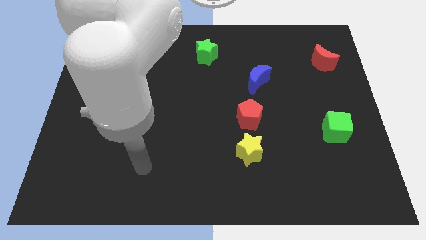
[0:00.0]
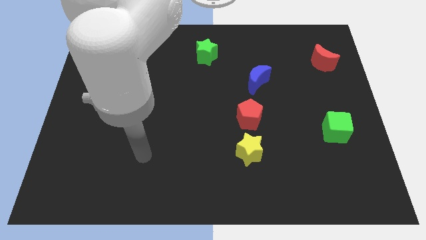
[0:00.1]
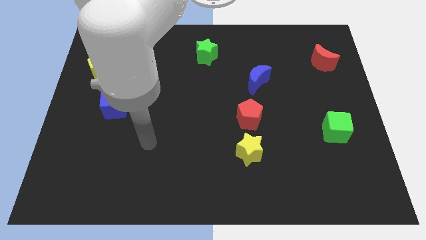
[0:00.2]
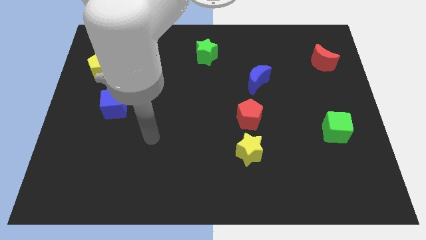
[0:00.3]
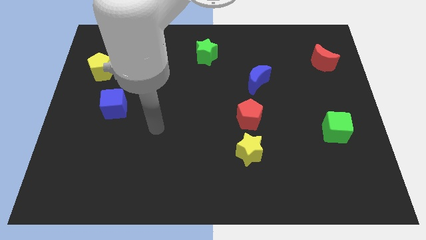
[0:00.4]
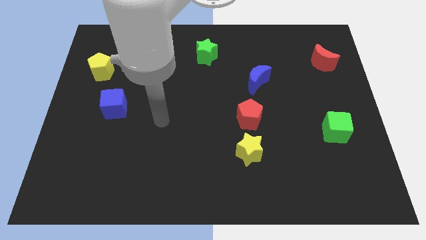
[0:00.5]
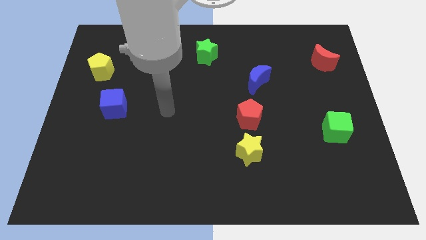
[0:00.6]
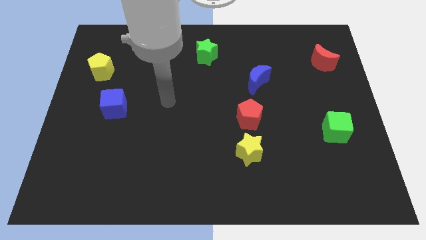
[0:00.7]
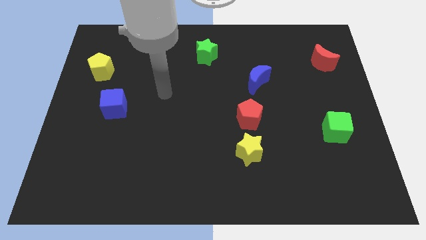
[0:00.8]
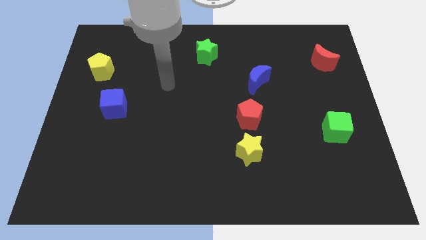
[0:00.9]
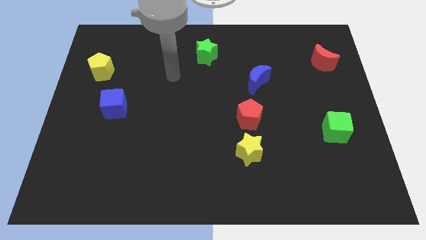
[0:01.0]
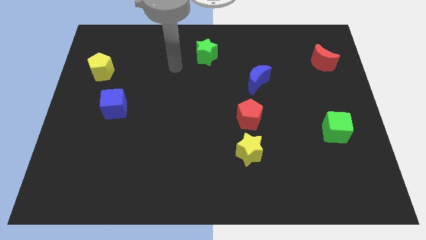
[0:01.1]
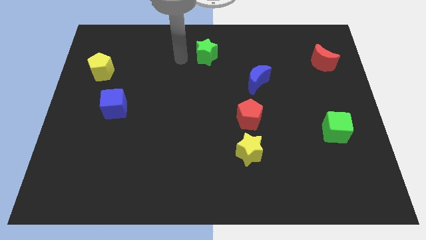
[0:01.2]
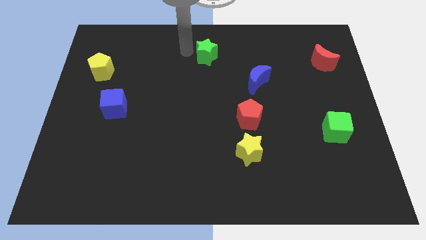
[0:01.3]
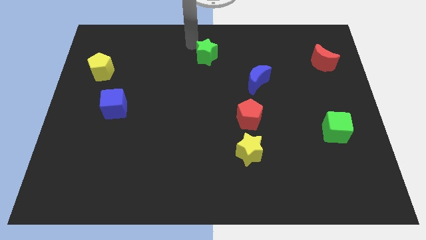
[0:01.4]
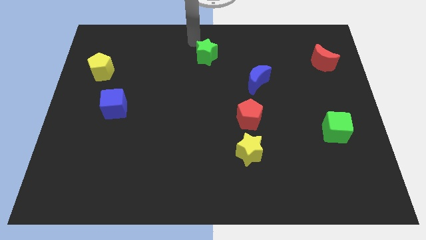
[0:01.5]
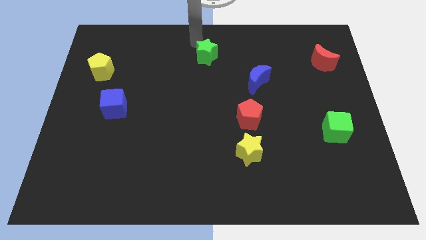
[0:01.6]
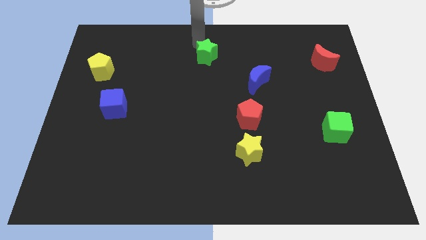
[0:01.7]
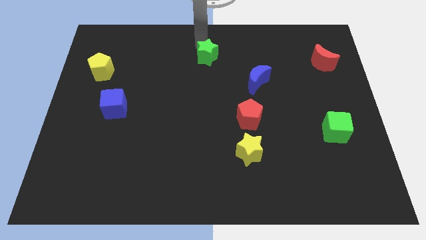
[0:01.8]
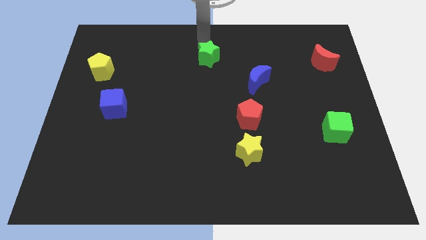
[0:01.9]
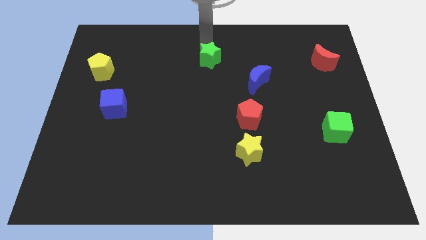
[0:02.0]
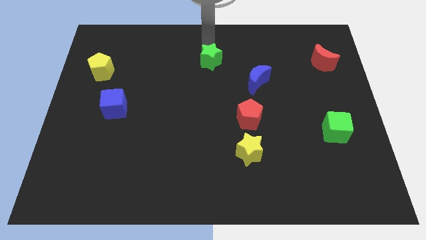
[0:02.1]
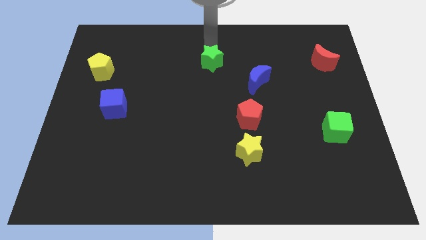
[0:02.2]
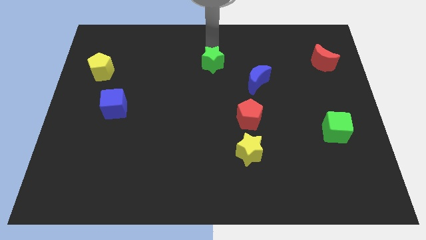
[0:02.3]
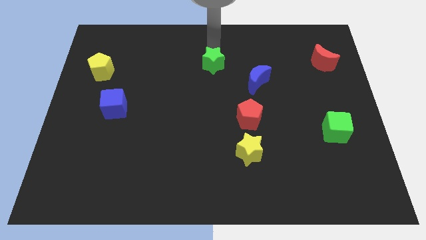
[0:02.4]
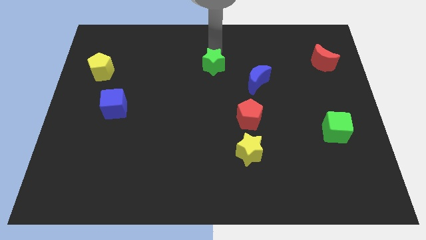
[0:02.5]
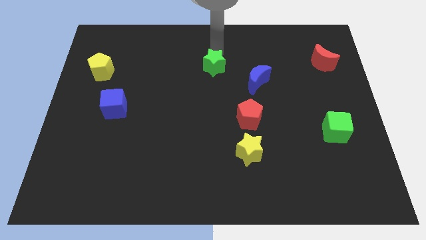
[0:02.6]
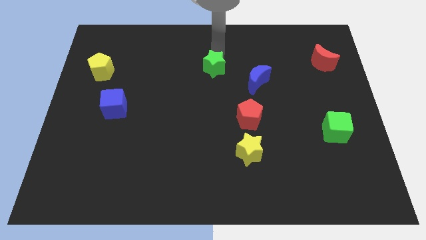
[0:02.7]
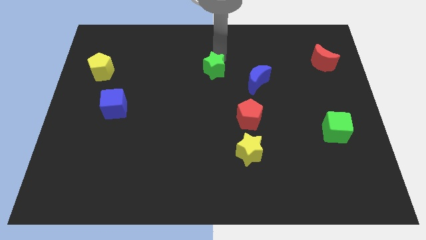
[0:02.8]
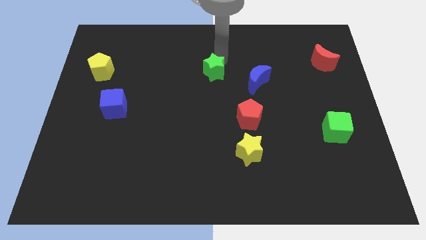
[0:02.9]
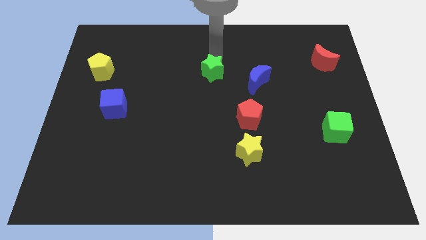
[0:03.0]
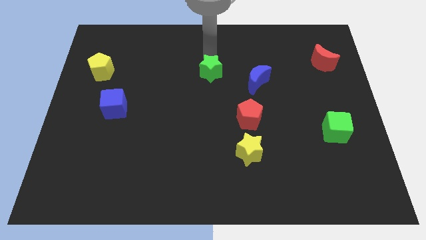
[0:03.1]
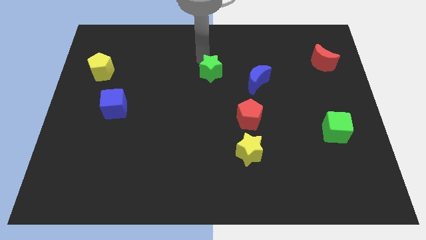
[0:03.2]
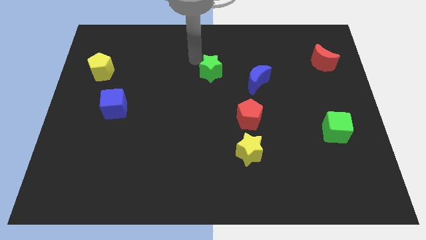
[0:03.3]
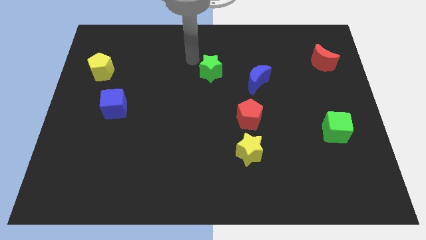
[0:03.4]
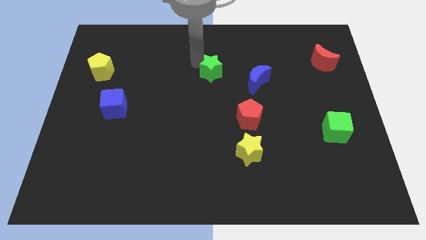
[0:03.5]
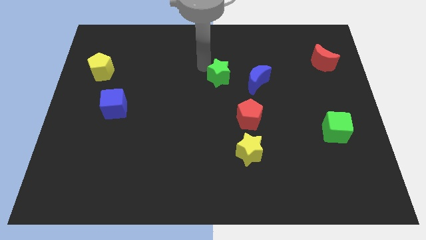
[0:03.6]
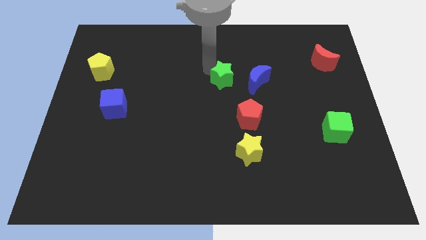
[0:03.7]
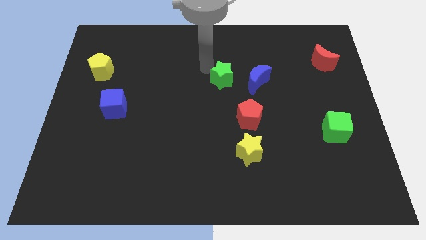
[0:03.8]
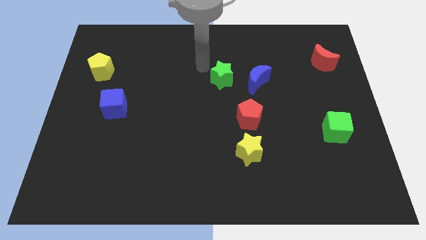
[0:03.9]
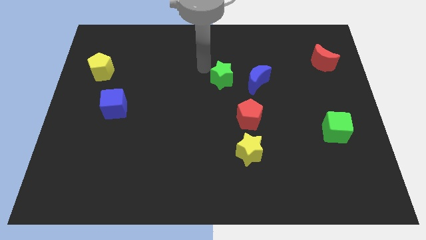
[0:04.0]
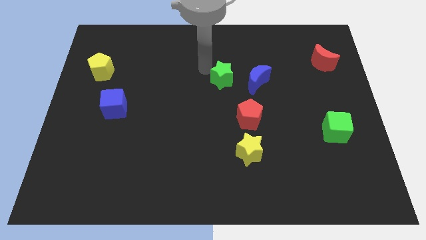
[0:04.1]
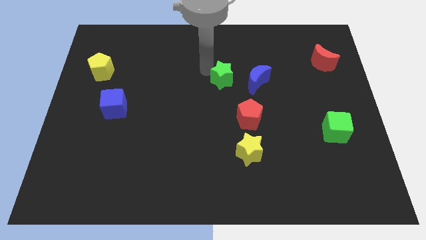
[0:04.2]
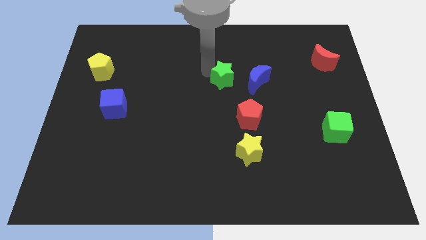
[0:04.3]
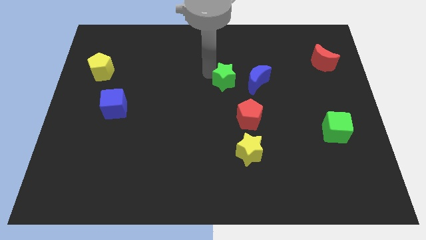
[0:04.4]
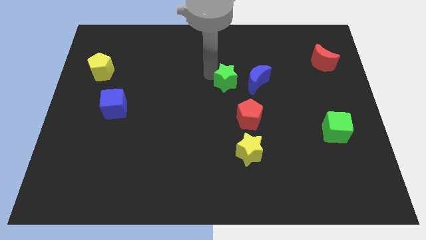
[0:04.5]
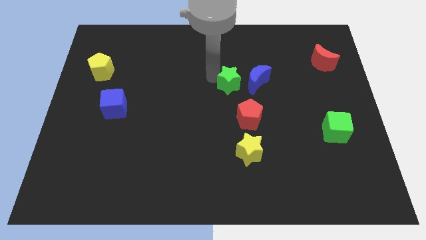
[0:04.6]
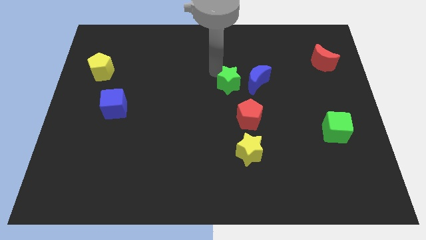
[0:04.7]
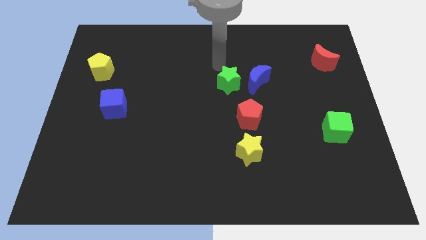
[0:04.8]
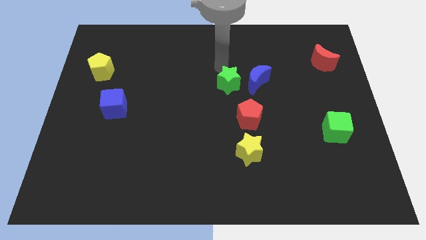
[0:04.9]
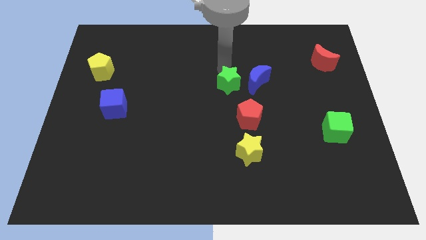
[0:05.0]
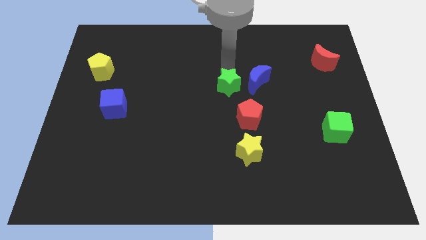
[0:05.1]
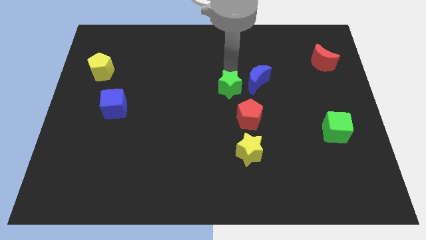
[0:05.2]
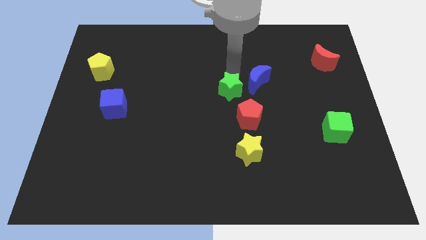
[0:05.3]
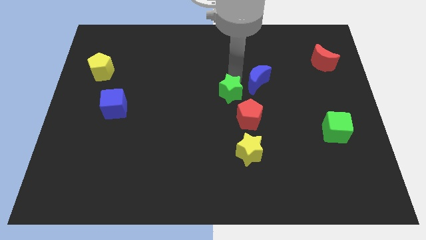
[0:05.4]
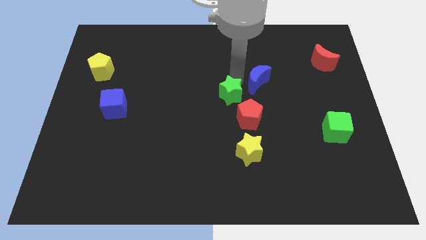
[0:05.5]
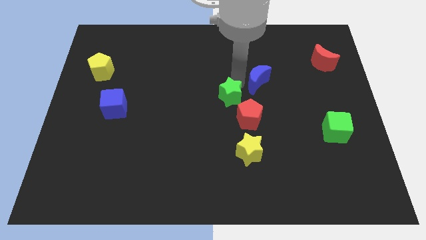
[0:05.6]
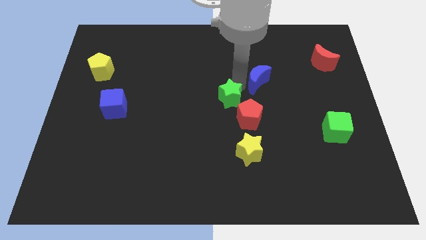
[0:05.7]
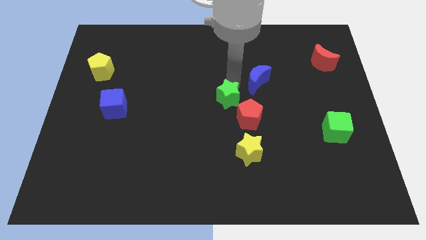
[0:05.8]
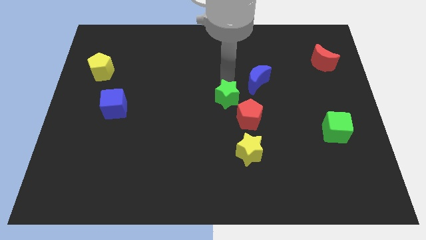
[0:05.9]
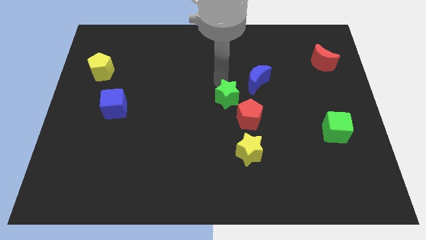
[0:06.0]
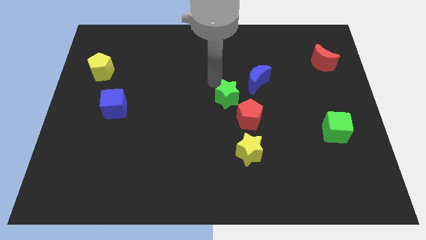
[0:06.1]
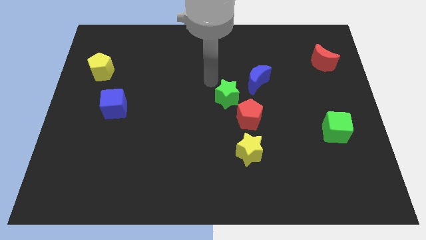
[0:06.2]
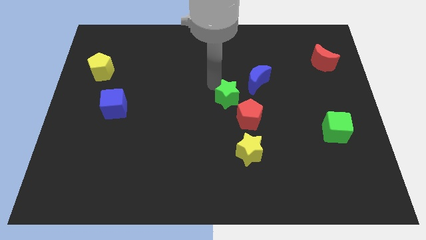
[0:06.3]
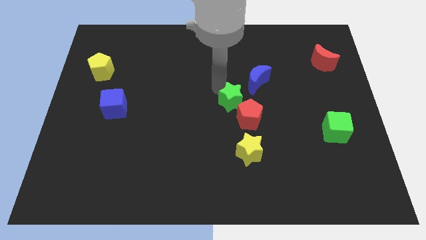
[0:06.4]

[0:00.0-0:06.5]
put the green star above the yellow star

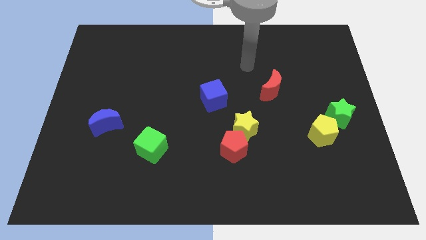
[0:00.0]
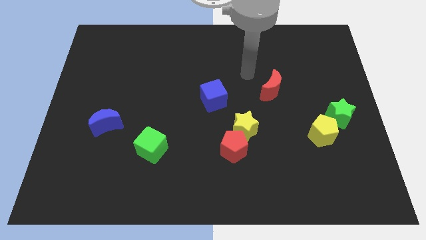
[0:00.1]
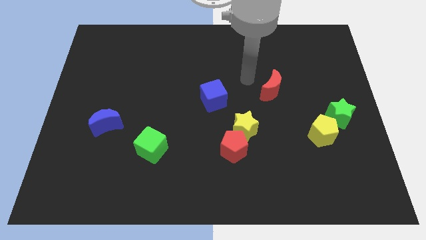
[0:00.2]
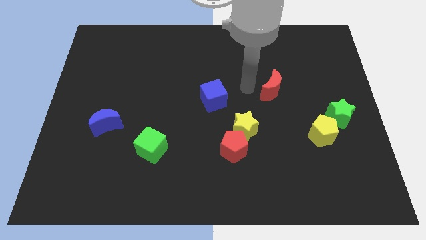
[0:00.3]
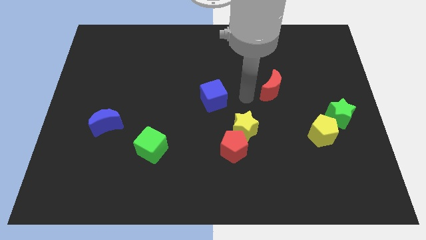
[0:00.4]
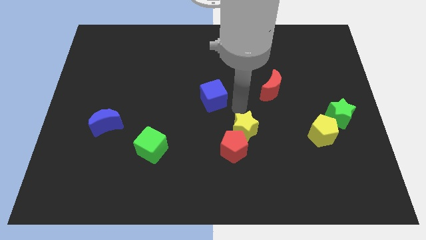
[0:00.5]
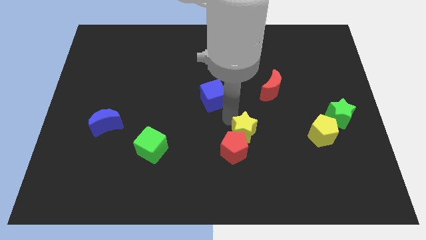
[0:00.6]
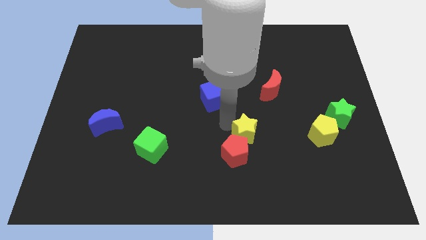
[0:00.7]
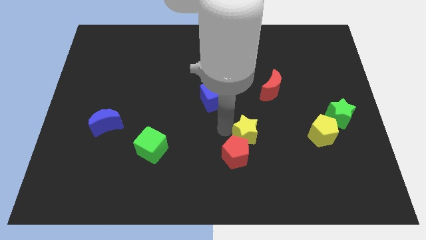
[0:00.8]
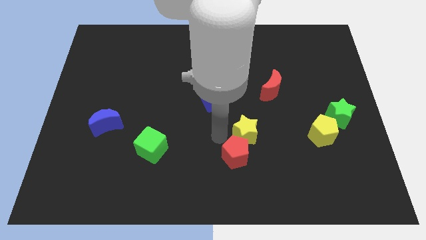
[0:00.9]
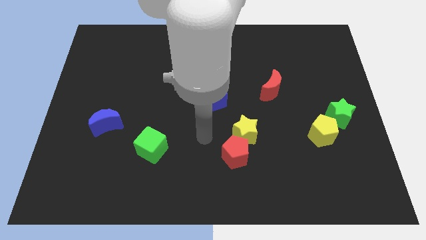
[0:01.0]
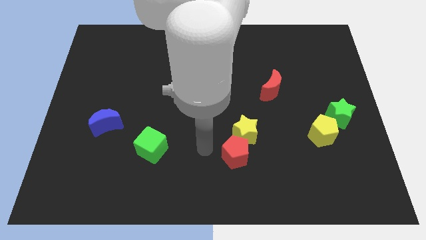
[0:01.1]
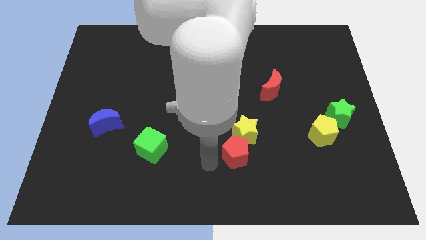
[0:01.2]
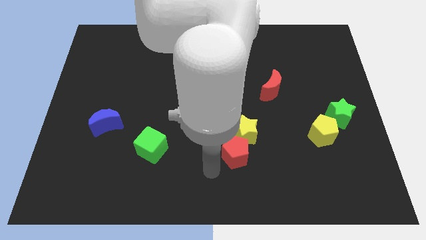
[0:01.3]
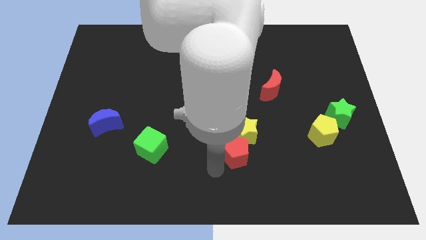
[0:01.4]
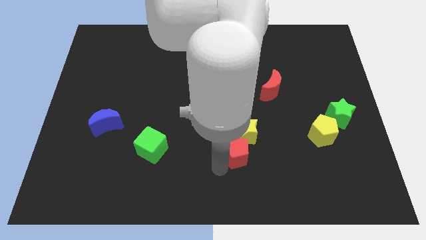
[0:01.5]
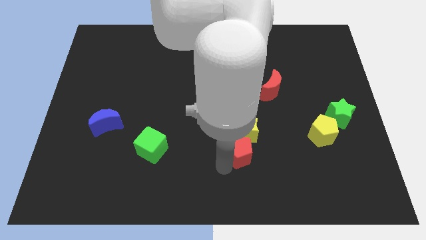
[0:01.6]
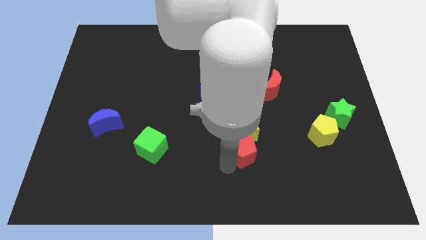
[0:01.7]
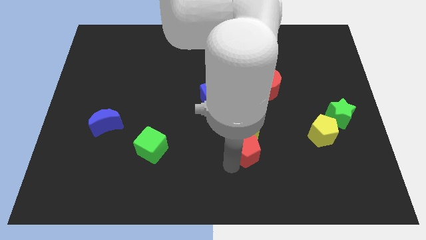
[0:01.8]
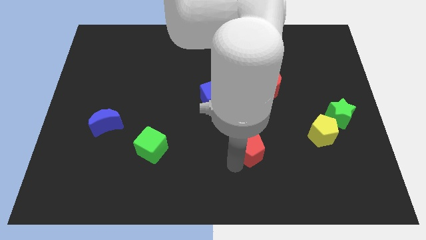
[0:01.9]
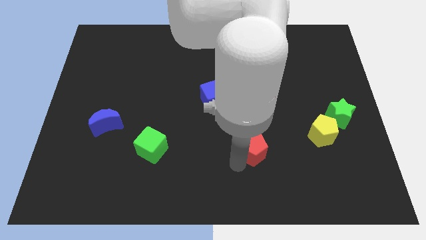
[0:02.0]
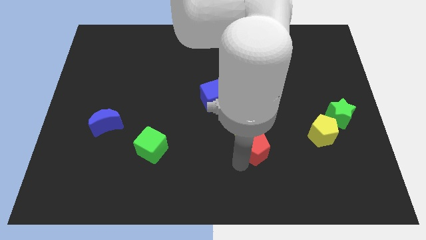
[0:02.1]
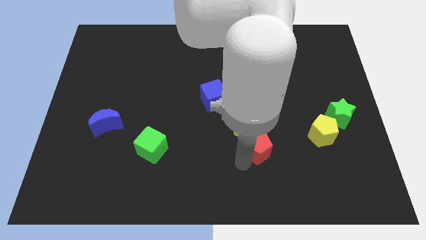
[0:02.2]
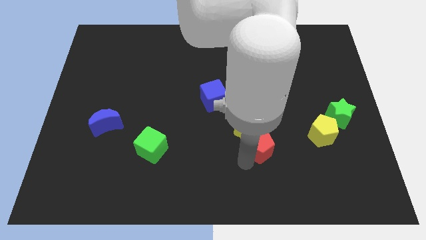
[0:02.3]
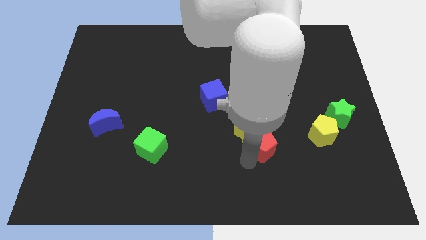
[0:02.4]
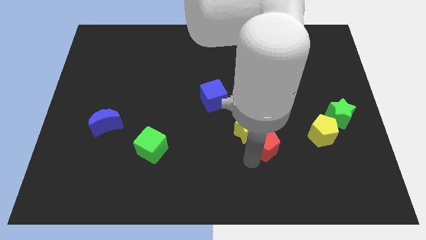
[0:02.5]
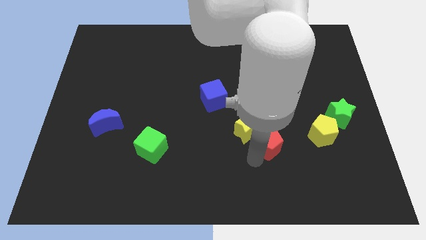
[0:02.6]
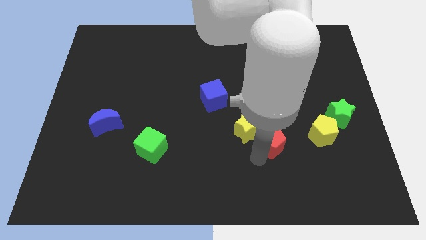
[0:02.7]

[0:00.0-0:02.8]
move the red pentagon below the red moon
